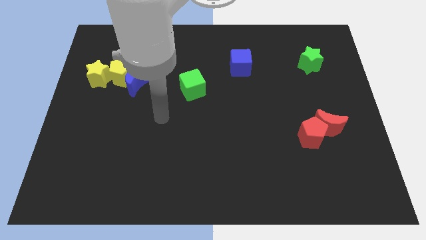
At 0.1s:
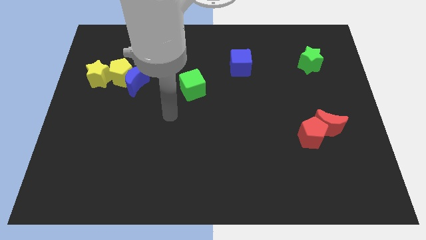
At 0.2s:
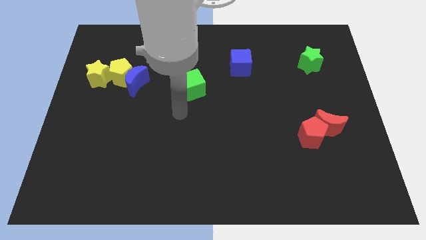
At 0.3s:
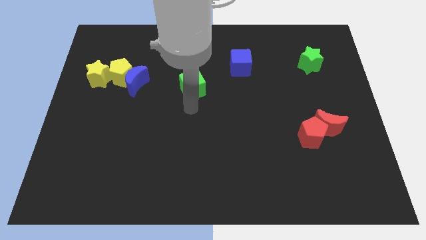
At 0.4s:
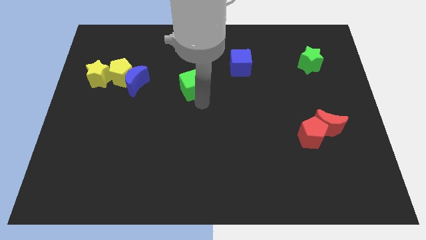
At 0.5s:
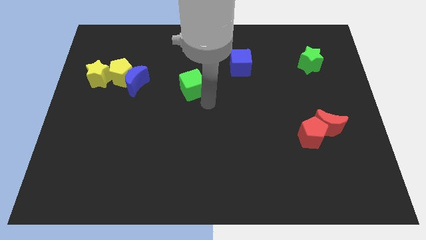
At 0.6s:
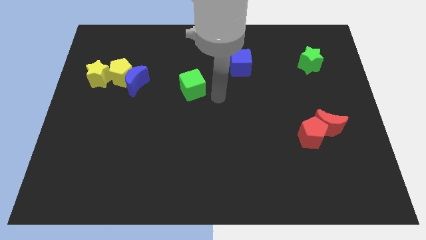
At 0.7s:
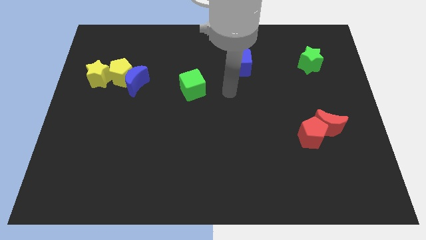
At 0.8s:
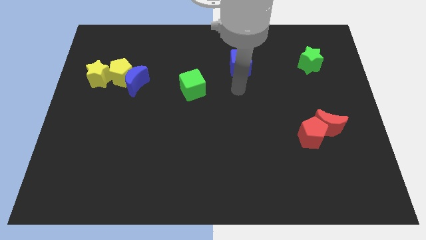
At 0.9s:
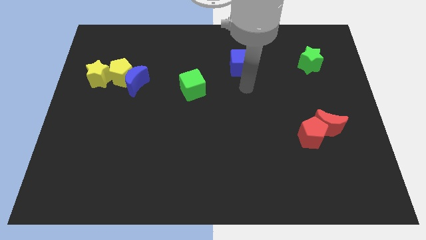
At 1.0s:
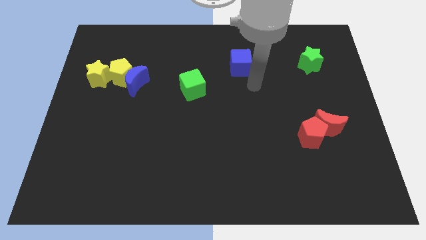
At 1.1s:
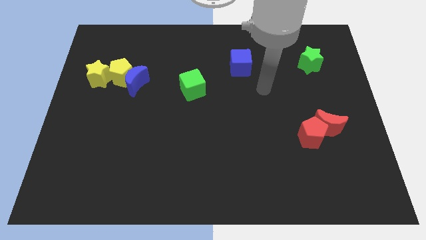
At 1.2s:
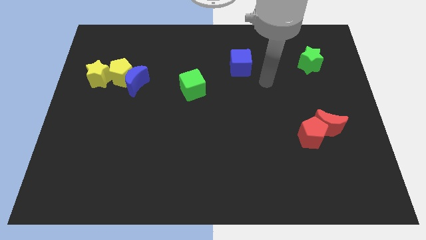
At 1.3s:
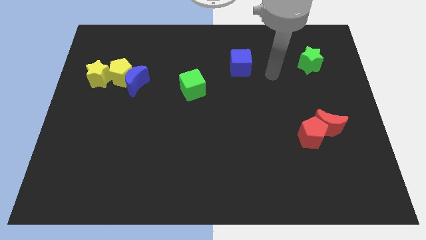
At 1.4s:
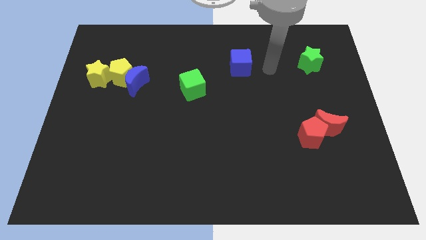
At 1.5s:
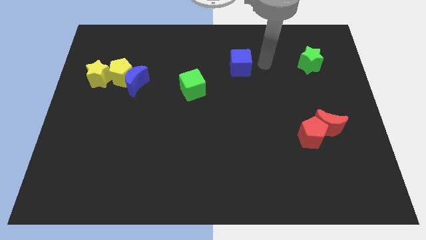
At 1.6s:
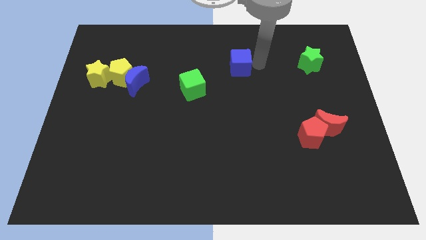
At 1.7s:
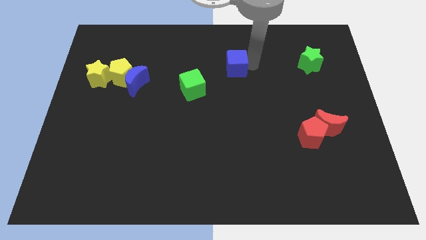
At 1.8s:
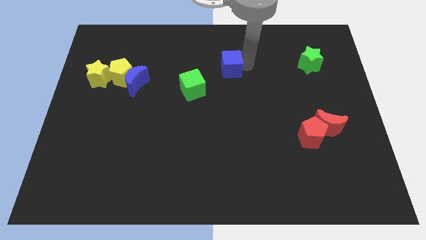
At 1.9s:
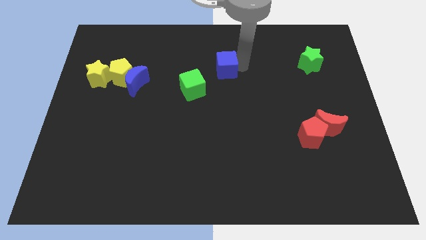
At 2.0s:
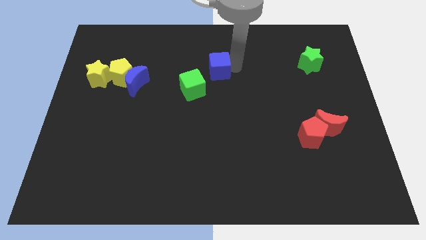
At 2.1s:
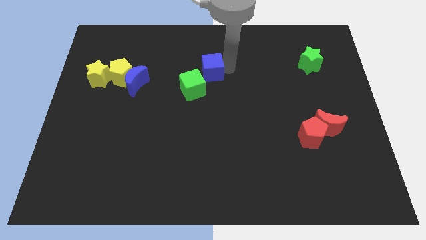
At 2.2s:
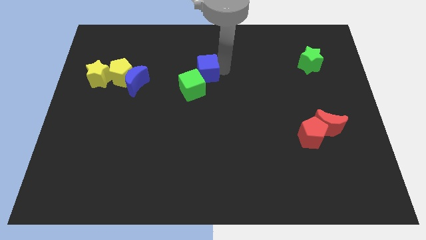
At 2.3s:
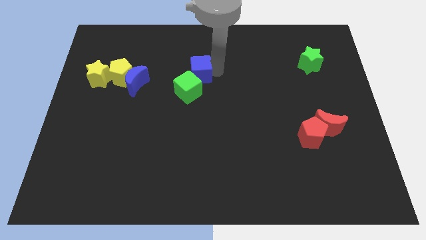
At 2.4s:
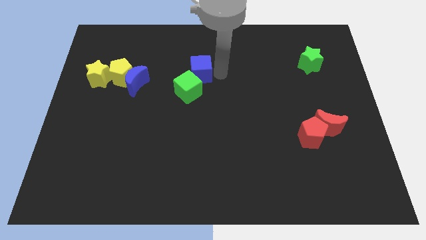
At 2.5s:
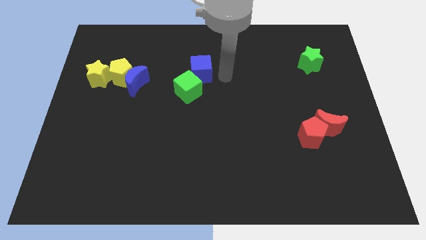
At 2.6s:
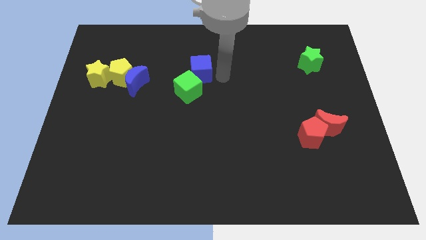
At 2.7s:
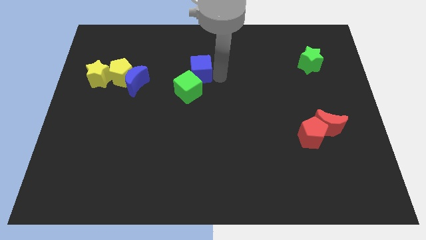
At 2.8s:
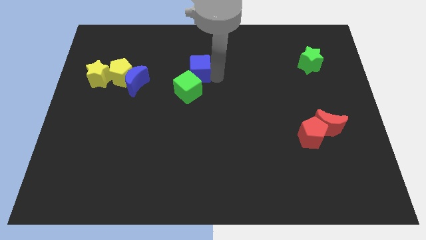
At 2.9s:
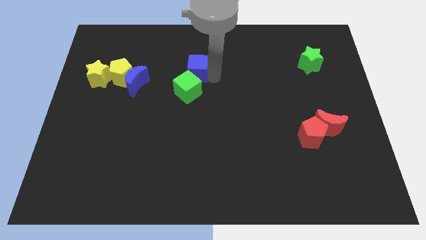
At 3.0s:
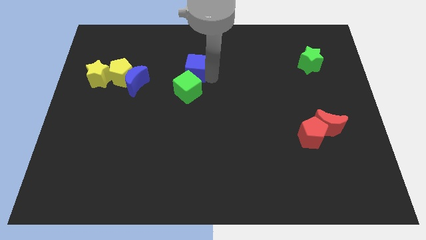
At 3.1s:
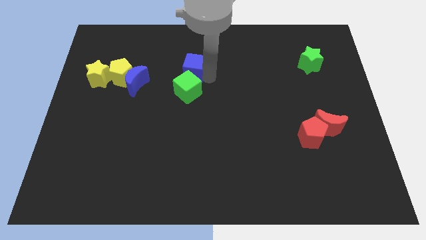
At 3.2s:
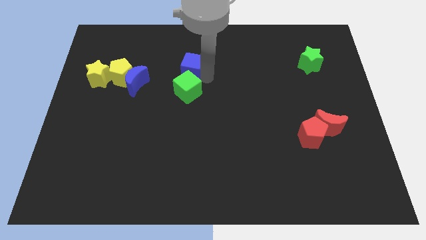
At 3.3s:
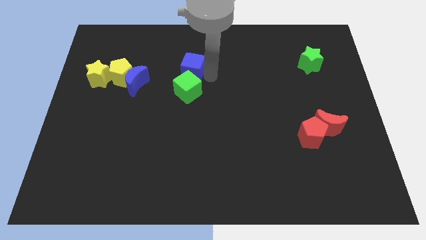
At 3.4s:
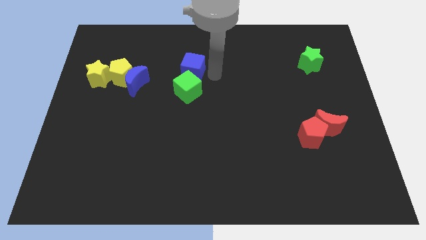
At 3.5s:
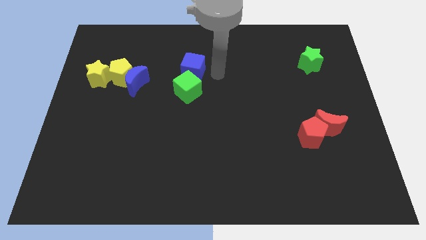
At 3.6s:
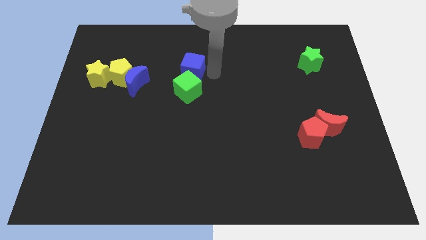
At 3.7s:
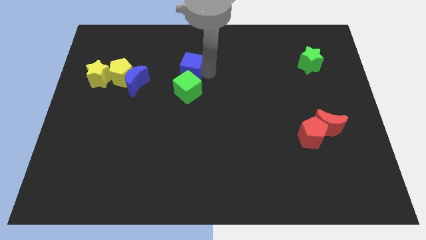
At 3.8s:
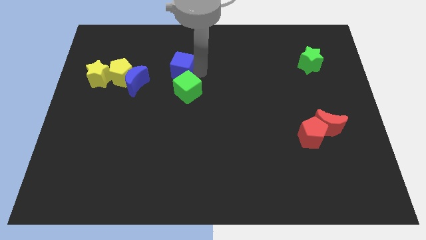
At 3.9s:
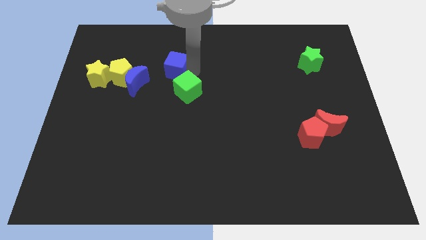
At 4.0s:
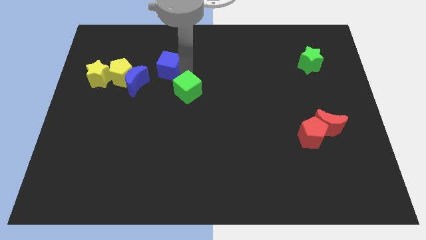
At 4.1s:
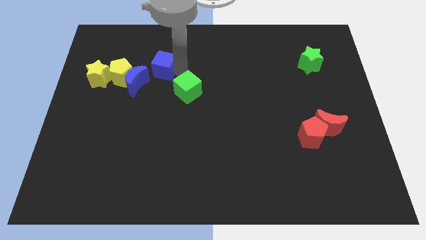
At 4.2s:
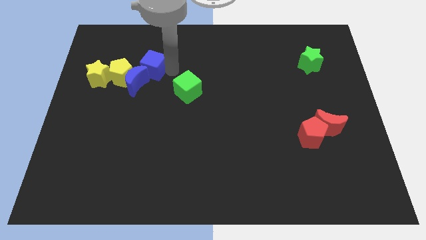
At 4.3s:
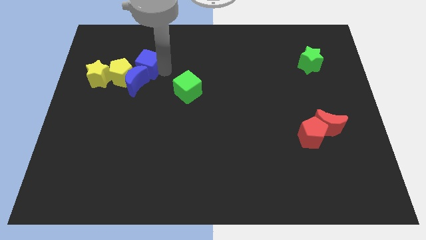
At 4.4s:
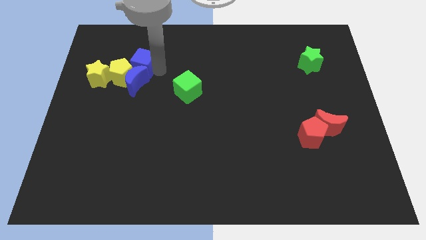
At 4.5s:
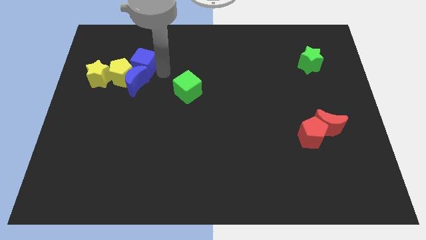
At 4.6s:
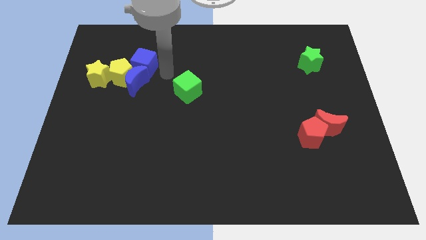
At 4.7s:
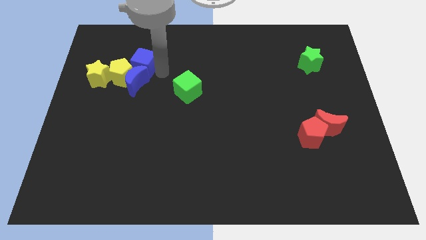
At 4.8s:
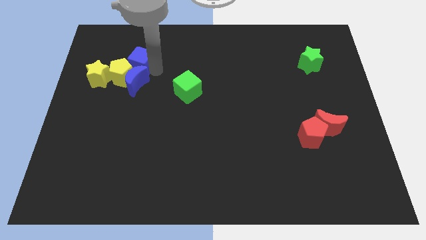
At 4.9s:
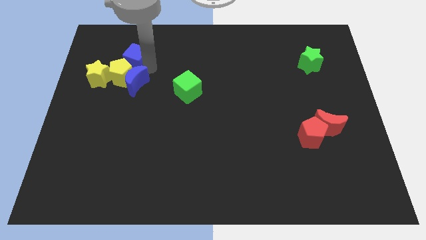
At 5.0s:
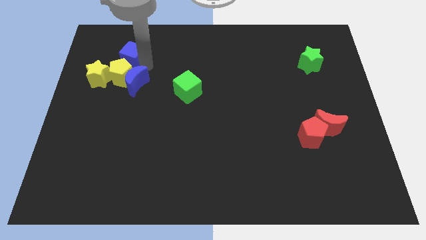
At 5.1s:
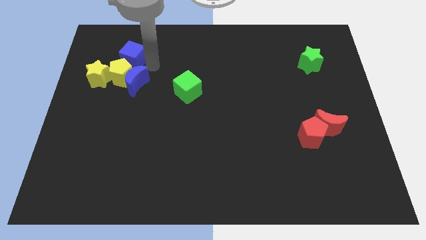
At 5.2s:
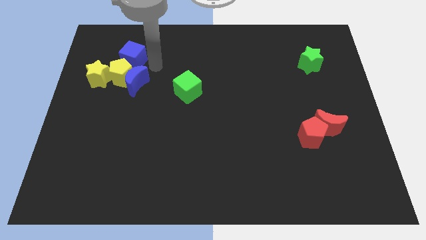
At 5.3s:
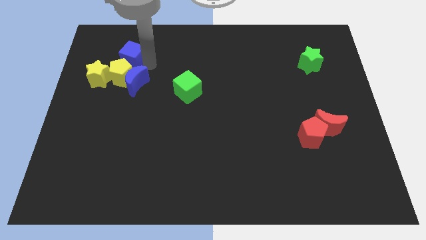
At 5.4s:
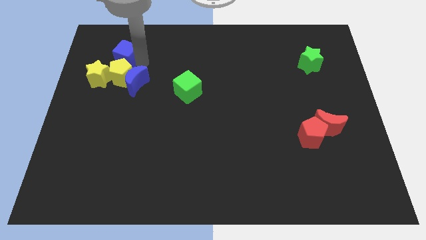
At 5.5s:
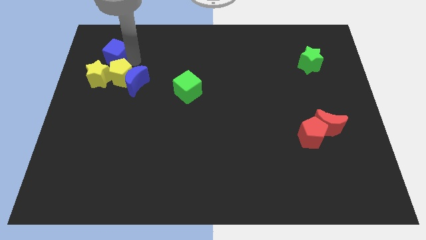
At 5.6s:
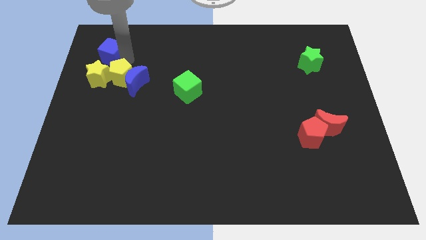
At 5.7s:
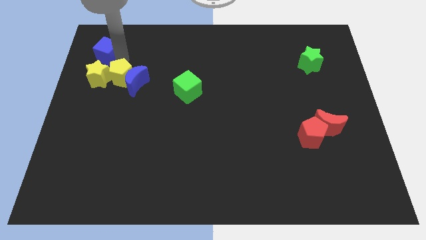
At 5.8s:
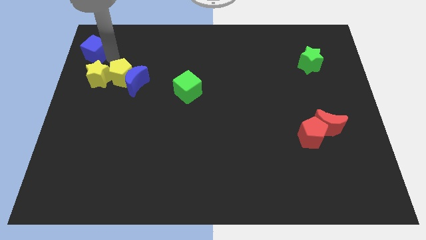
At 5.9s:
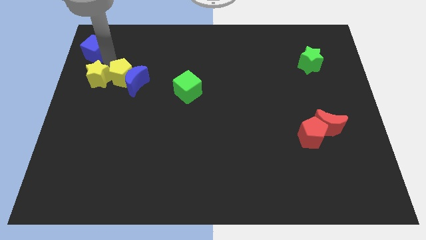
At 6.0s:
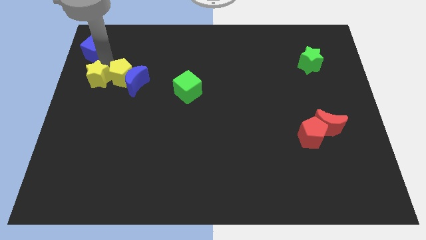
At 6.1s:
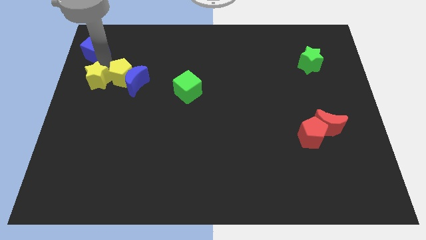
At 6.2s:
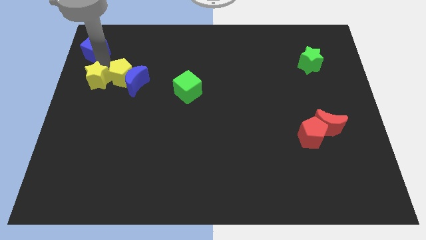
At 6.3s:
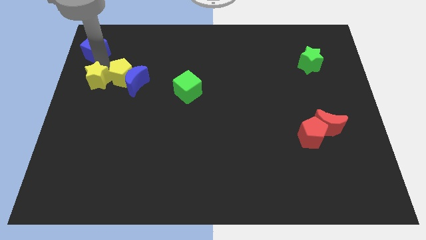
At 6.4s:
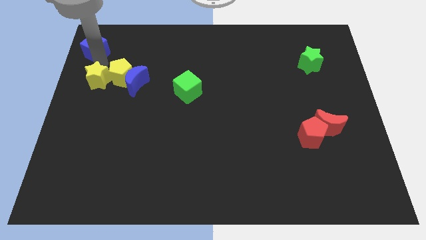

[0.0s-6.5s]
push the blue cube to the top left

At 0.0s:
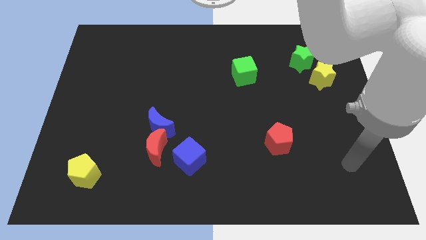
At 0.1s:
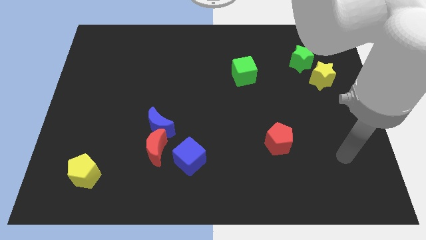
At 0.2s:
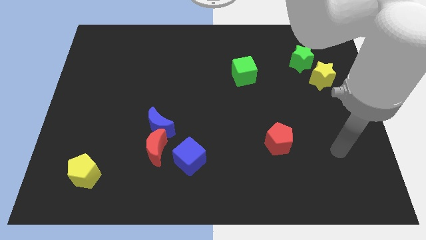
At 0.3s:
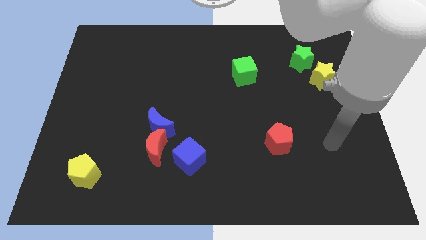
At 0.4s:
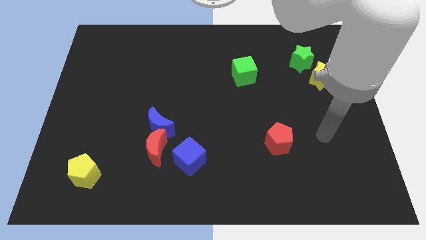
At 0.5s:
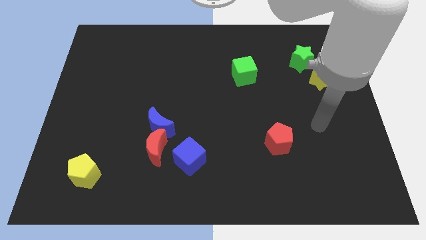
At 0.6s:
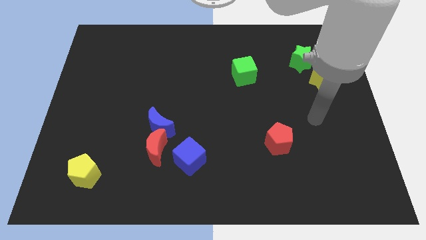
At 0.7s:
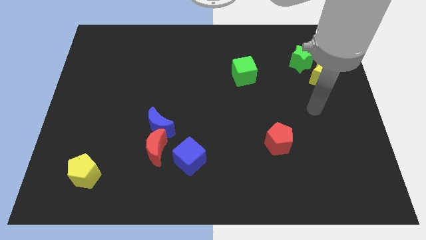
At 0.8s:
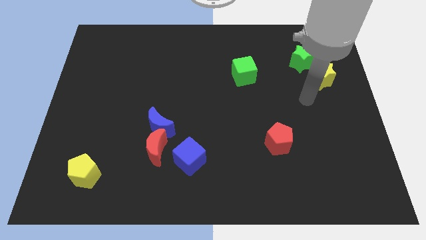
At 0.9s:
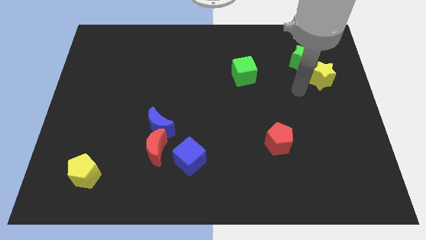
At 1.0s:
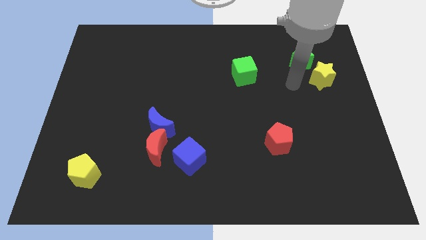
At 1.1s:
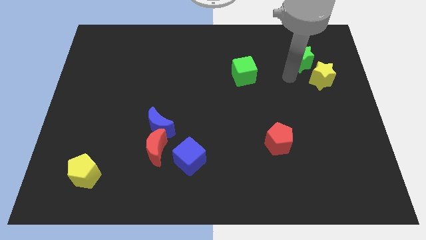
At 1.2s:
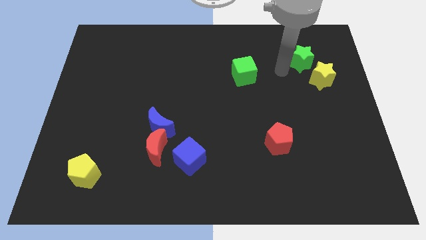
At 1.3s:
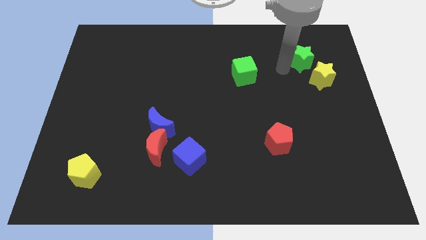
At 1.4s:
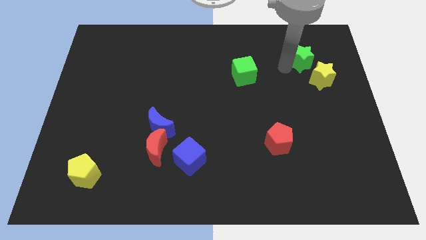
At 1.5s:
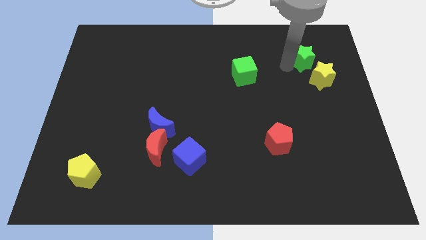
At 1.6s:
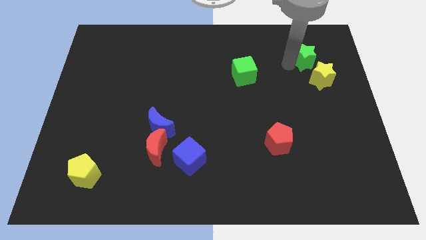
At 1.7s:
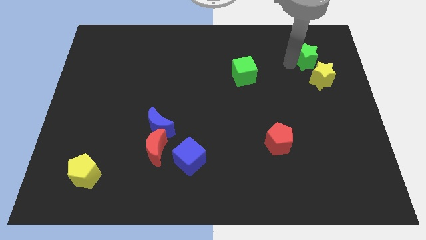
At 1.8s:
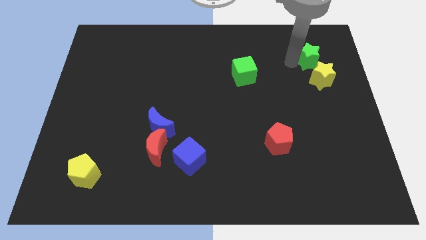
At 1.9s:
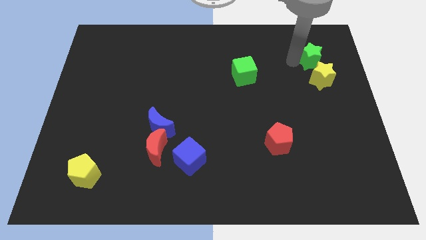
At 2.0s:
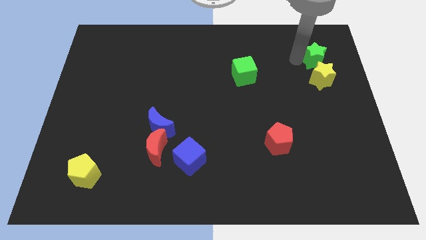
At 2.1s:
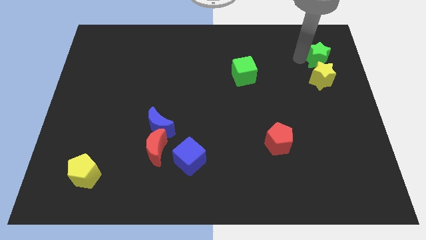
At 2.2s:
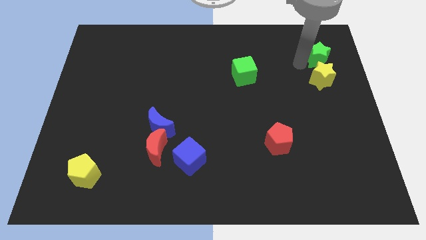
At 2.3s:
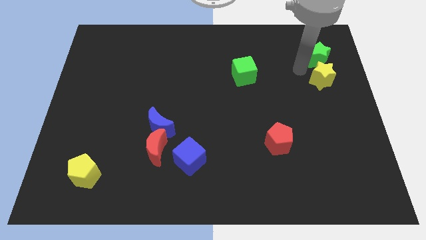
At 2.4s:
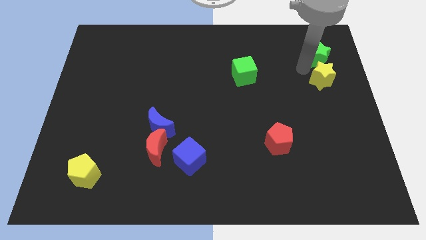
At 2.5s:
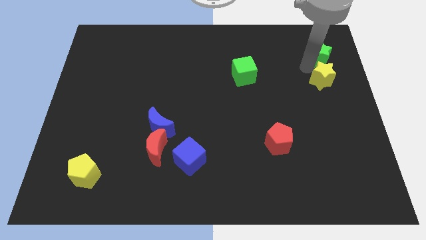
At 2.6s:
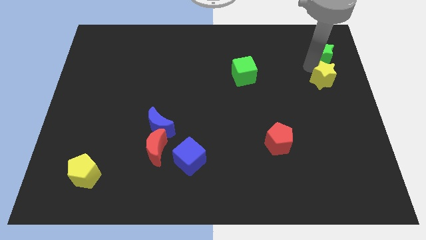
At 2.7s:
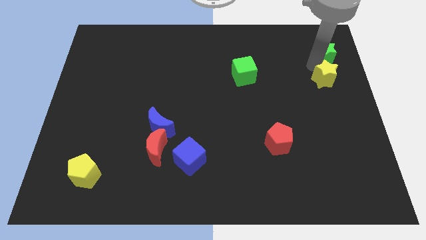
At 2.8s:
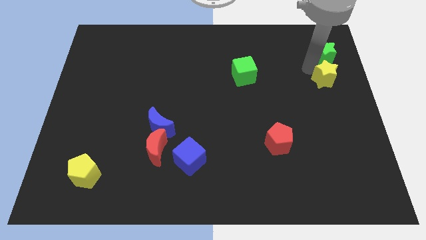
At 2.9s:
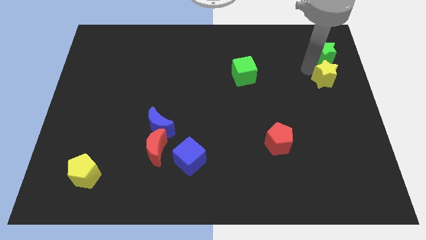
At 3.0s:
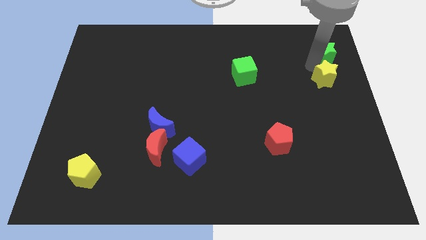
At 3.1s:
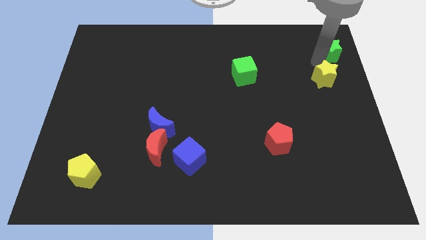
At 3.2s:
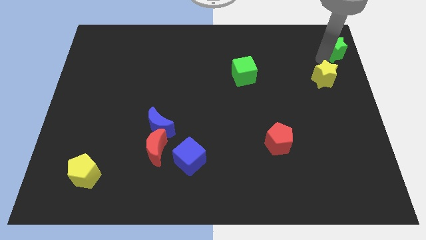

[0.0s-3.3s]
push the green star to the top right
